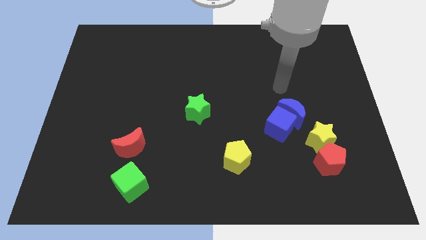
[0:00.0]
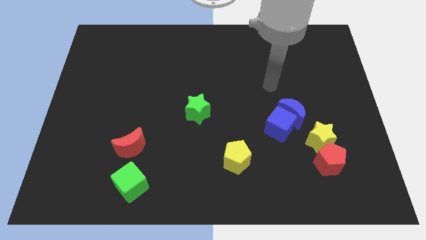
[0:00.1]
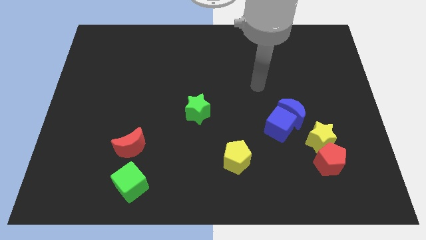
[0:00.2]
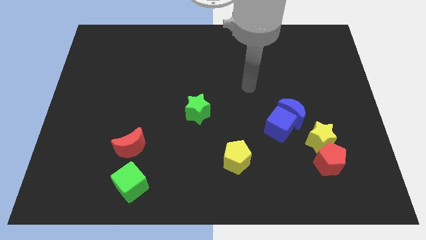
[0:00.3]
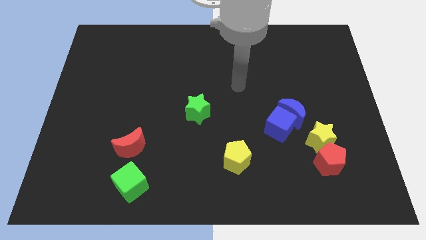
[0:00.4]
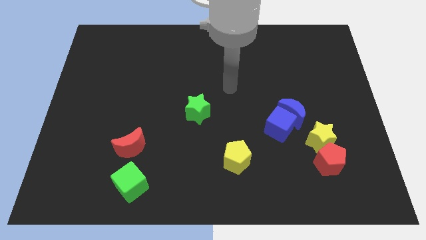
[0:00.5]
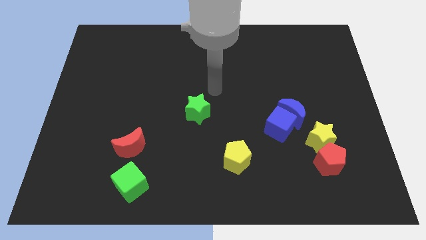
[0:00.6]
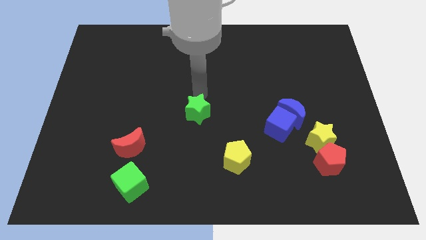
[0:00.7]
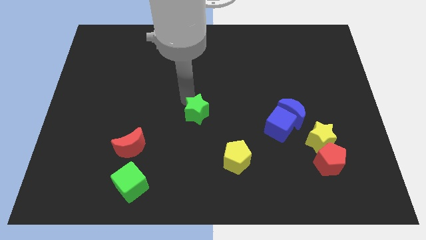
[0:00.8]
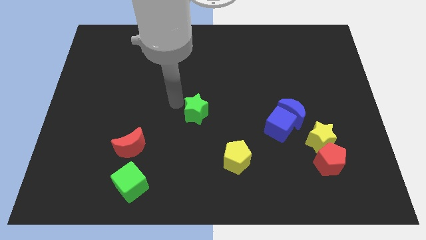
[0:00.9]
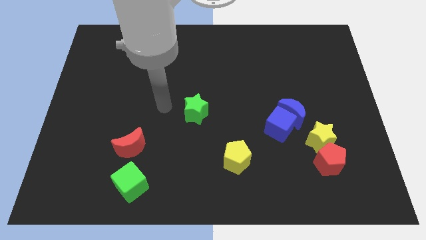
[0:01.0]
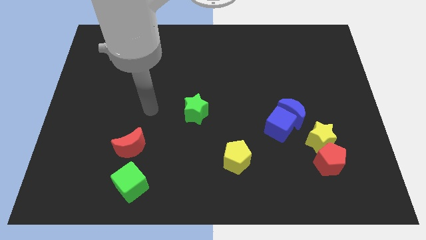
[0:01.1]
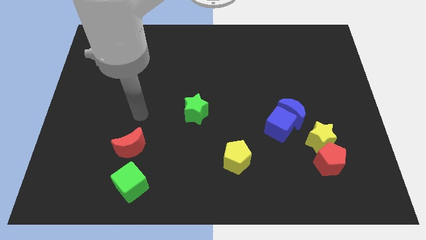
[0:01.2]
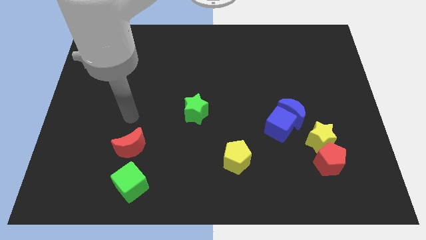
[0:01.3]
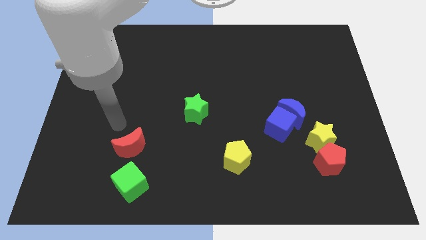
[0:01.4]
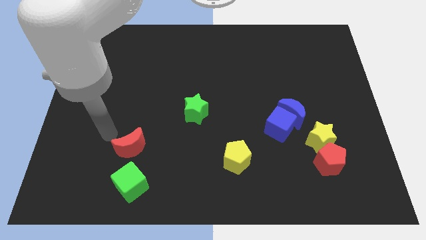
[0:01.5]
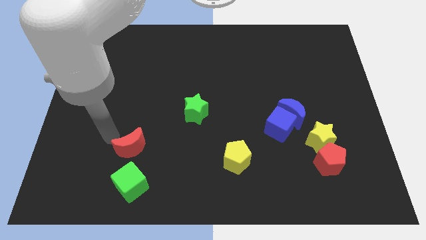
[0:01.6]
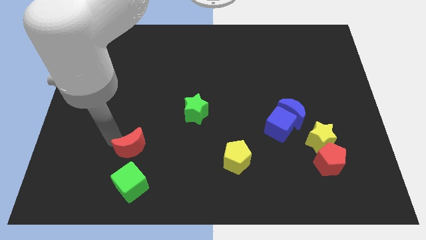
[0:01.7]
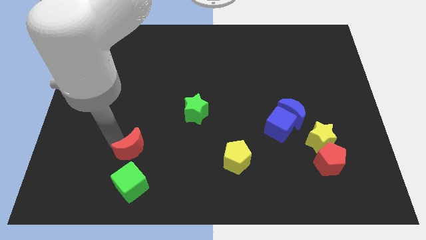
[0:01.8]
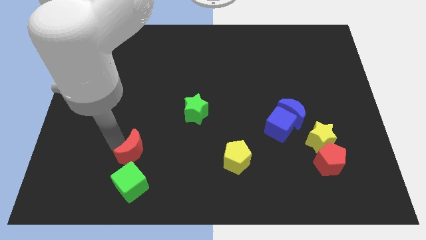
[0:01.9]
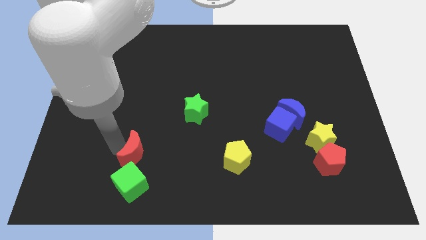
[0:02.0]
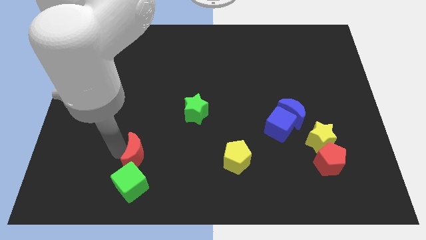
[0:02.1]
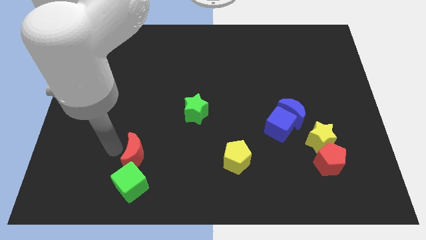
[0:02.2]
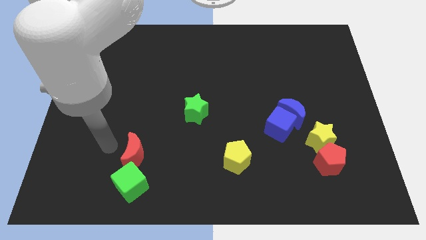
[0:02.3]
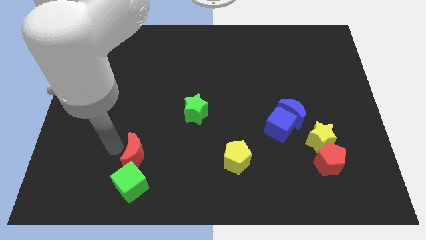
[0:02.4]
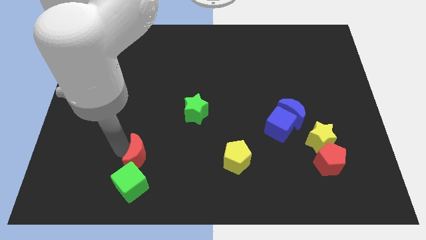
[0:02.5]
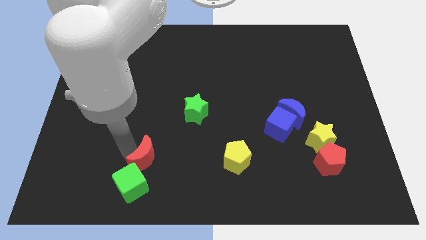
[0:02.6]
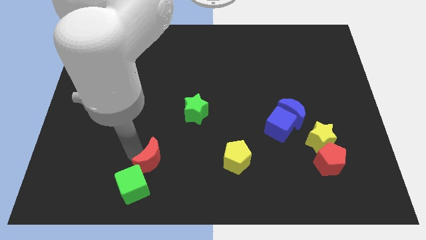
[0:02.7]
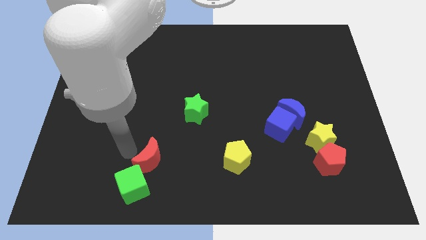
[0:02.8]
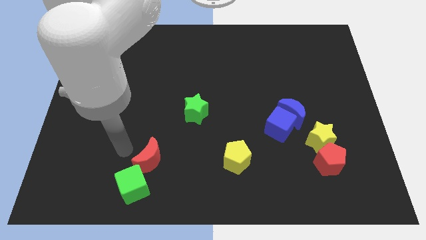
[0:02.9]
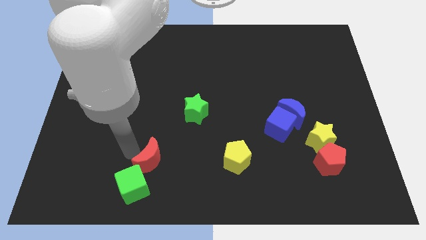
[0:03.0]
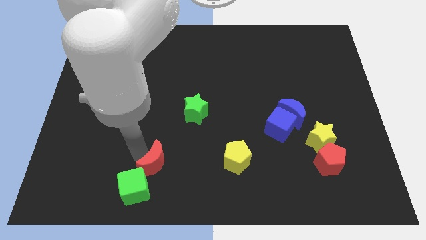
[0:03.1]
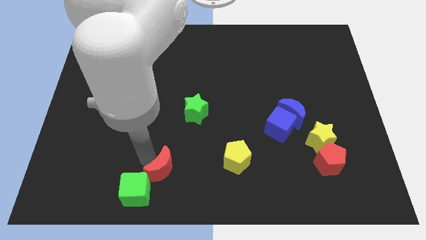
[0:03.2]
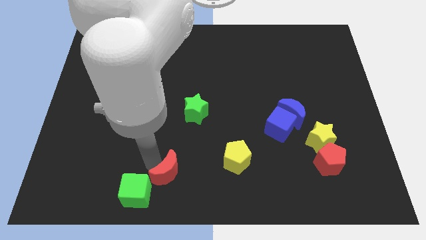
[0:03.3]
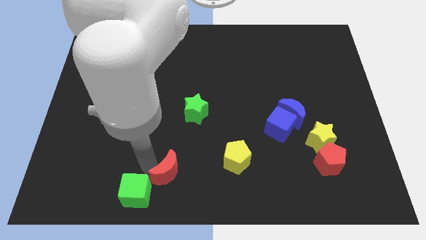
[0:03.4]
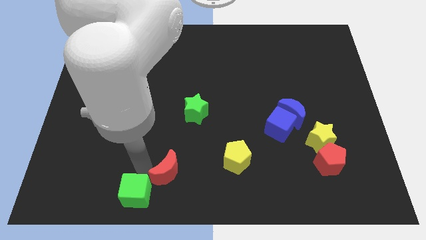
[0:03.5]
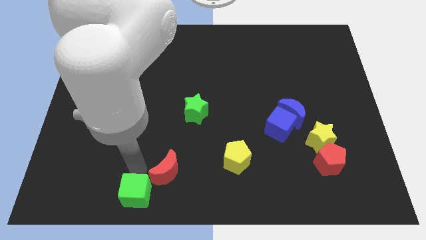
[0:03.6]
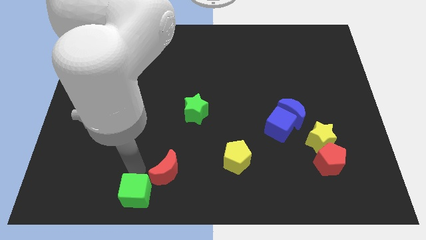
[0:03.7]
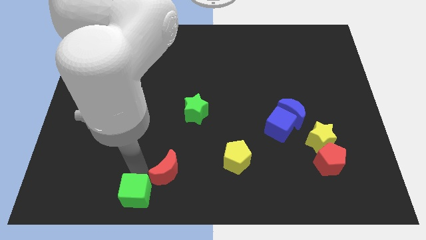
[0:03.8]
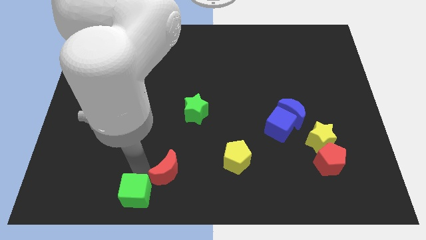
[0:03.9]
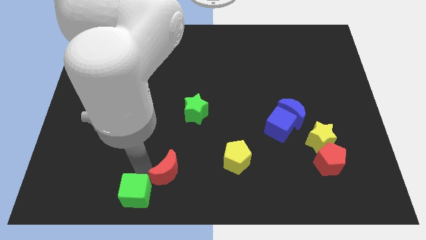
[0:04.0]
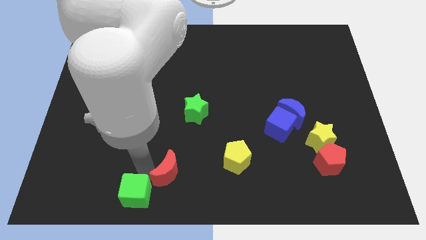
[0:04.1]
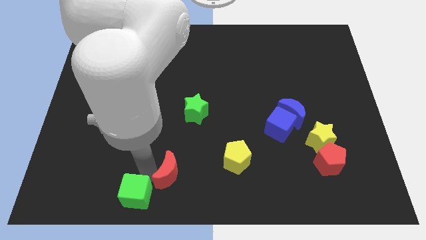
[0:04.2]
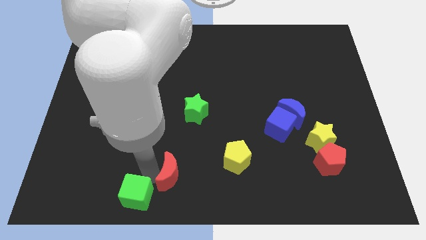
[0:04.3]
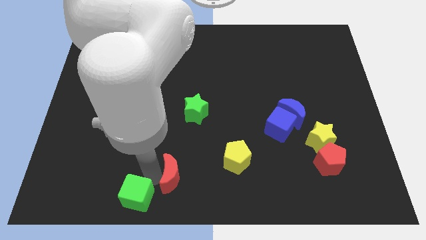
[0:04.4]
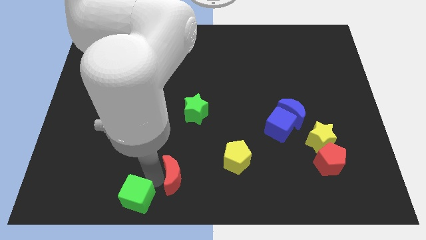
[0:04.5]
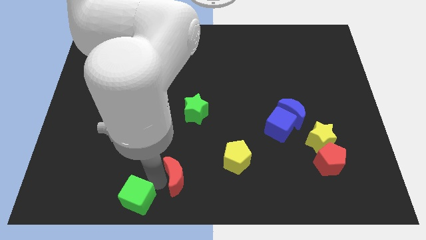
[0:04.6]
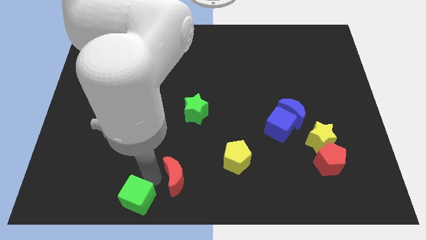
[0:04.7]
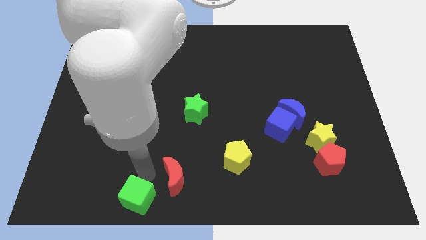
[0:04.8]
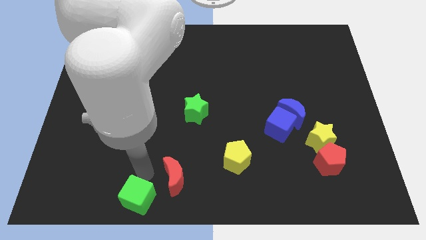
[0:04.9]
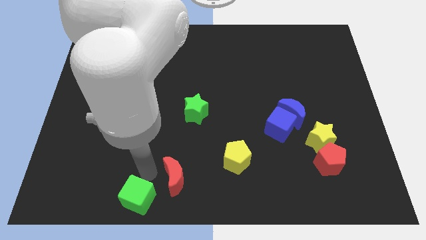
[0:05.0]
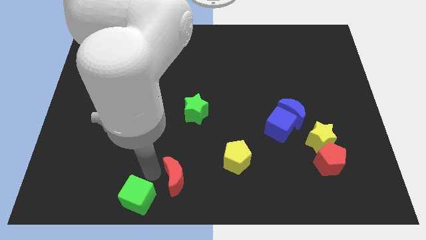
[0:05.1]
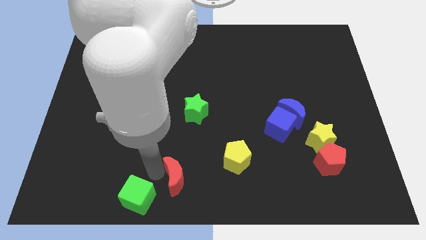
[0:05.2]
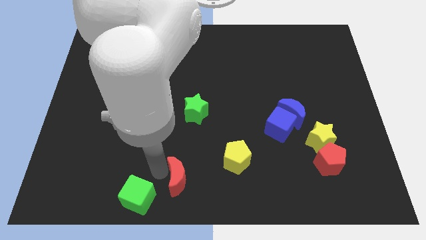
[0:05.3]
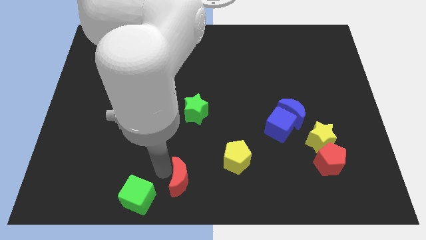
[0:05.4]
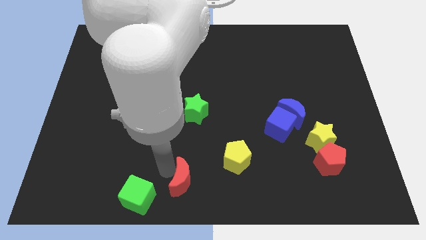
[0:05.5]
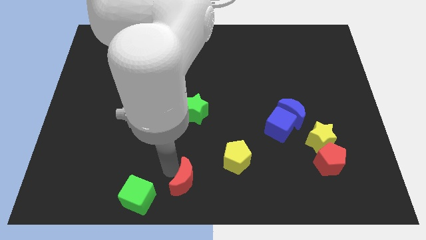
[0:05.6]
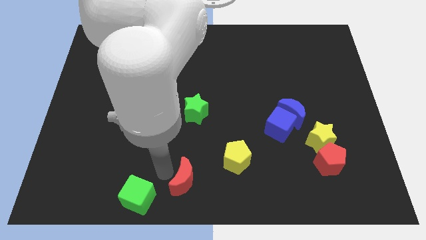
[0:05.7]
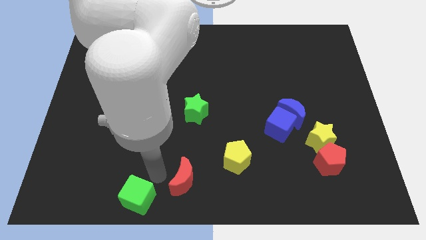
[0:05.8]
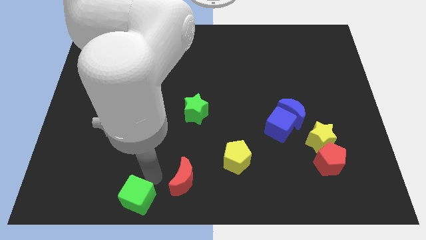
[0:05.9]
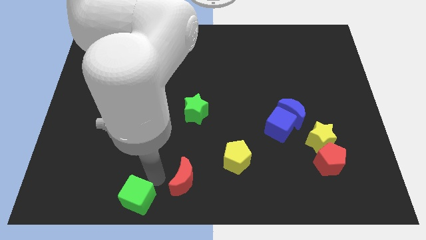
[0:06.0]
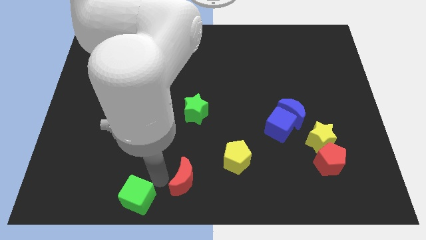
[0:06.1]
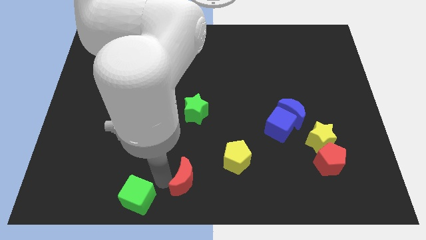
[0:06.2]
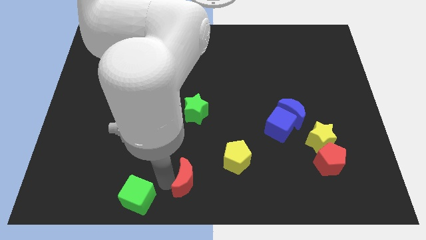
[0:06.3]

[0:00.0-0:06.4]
slide the red moon to the bottom left of the yellow pentagon

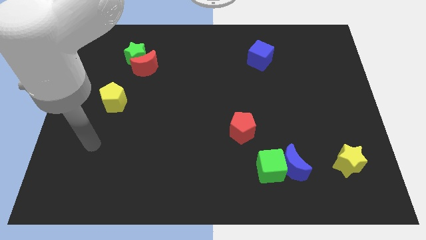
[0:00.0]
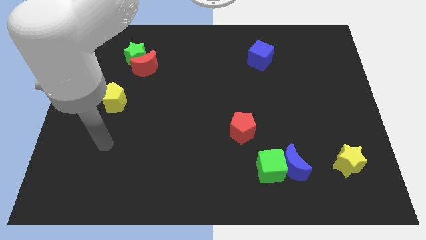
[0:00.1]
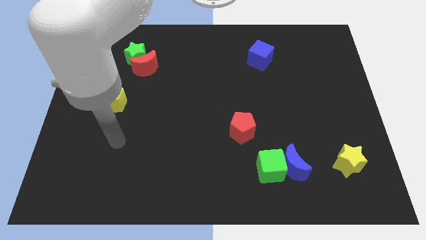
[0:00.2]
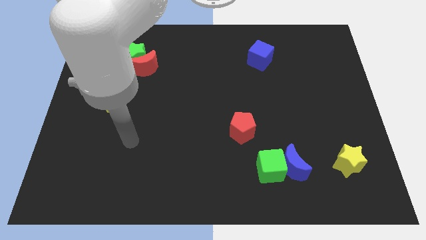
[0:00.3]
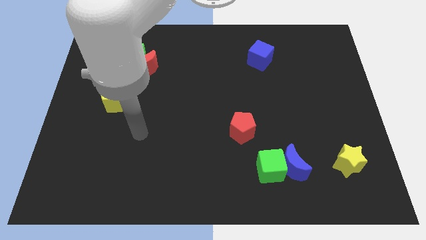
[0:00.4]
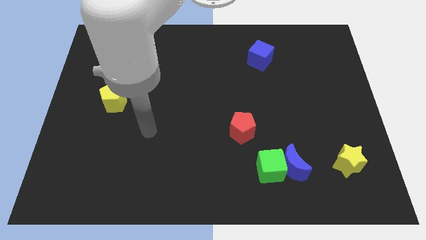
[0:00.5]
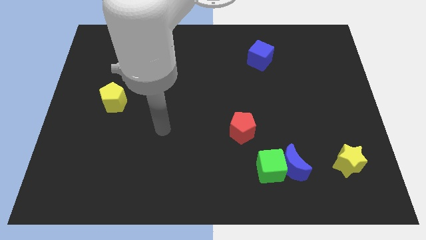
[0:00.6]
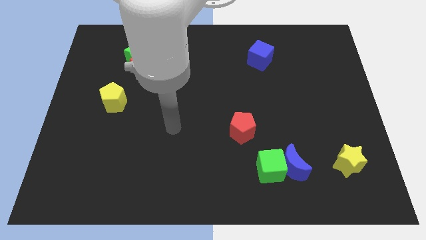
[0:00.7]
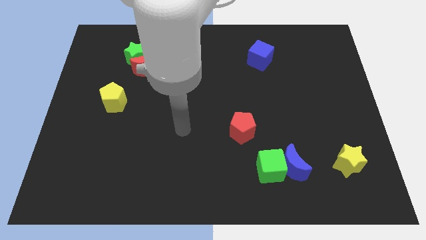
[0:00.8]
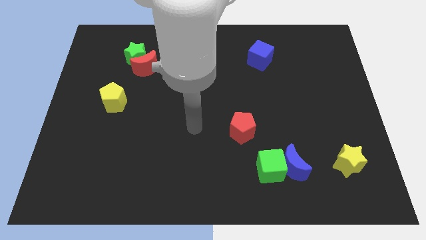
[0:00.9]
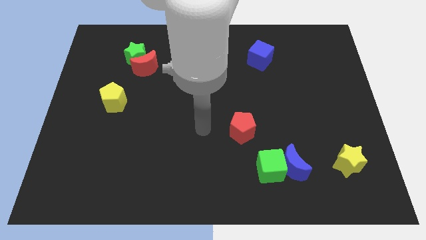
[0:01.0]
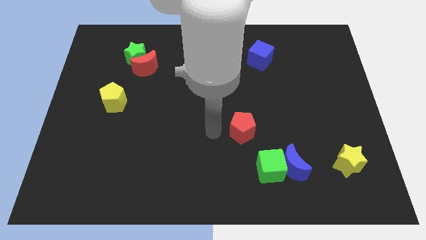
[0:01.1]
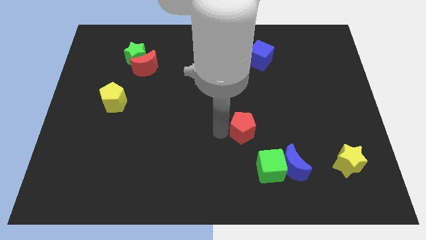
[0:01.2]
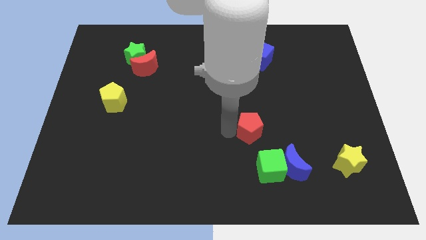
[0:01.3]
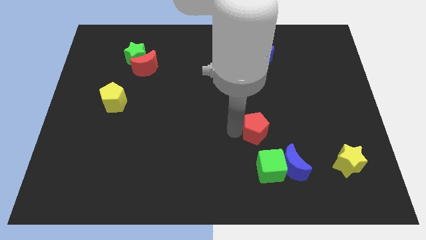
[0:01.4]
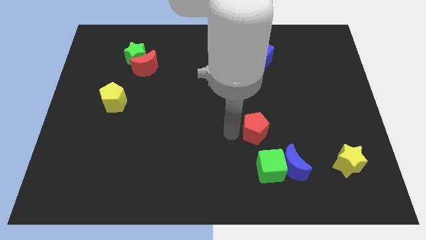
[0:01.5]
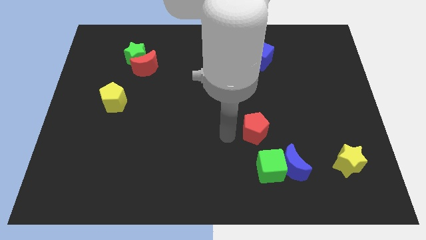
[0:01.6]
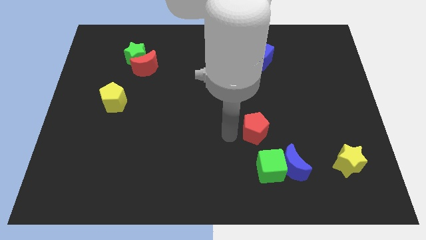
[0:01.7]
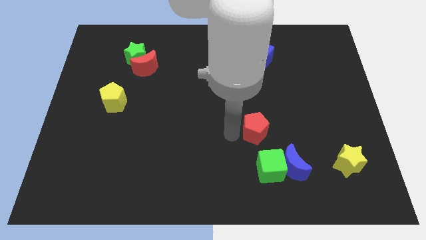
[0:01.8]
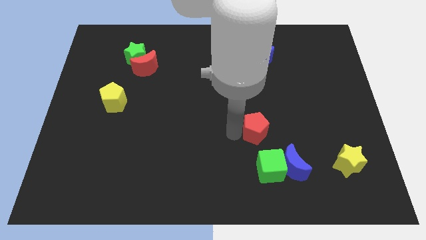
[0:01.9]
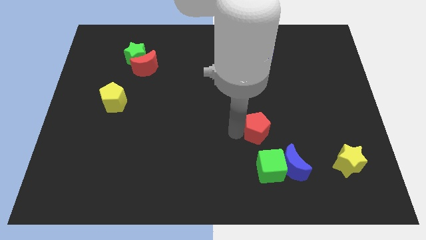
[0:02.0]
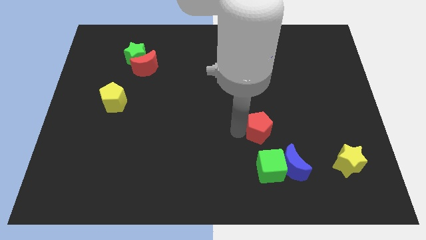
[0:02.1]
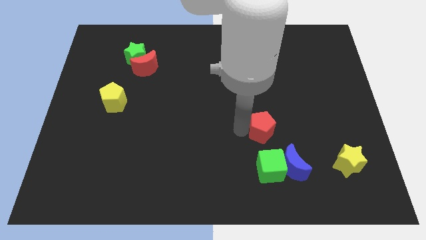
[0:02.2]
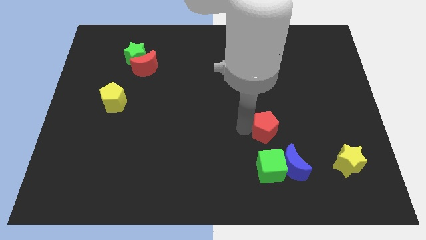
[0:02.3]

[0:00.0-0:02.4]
put the red pentagon to the top side of the blue moon
